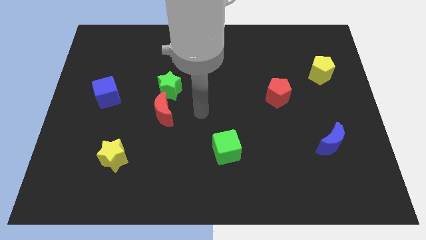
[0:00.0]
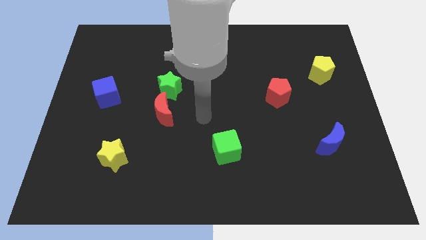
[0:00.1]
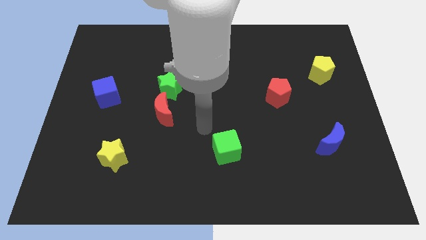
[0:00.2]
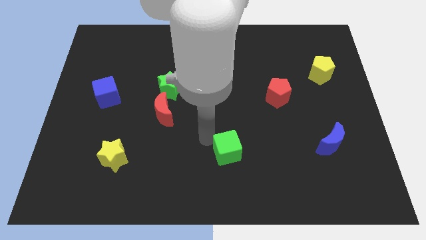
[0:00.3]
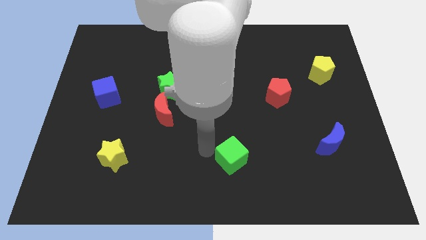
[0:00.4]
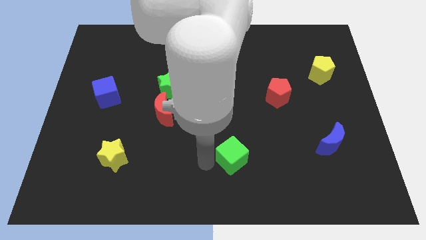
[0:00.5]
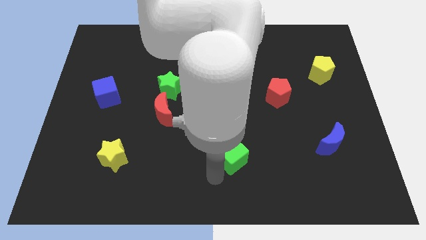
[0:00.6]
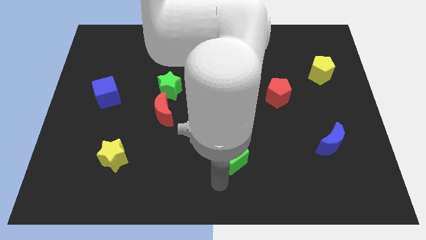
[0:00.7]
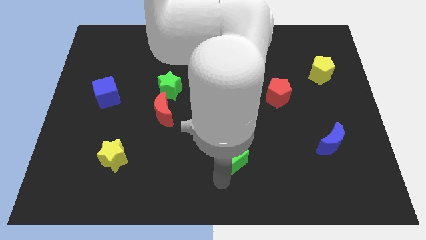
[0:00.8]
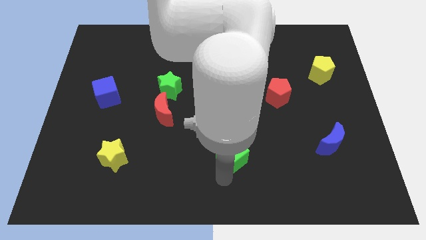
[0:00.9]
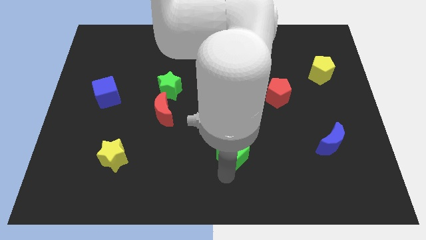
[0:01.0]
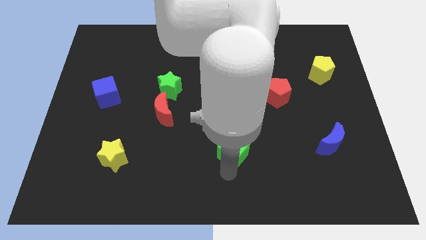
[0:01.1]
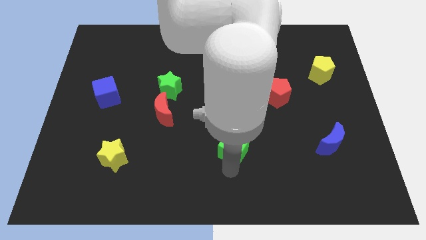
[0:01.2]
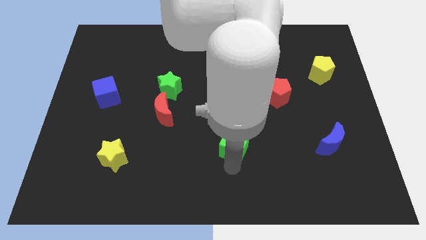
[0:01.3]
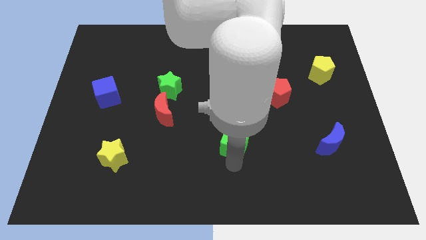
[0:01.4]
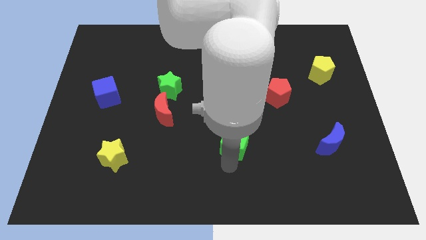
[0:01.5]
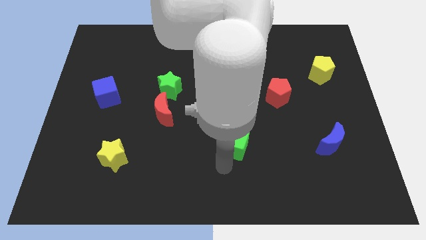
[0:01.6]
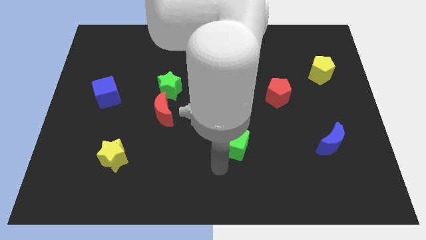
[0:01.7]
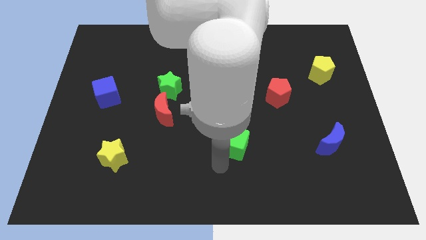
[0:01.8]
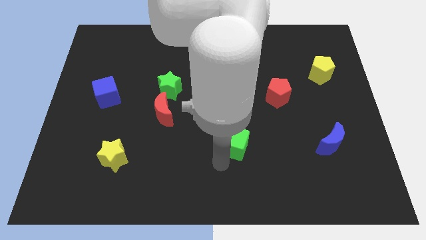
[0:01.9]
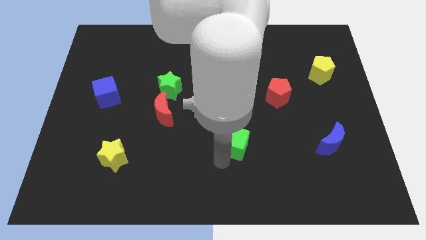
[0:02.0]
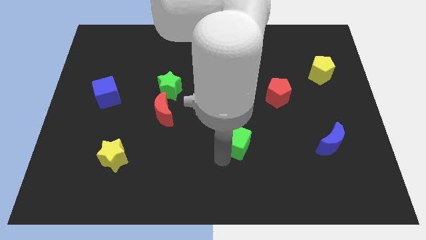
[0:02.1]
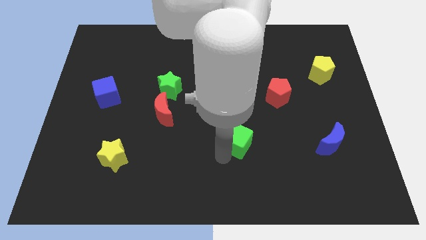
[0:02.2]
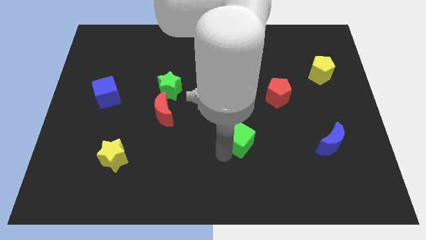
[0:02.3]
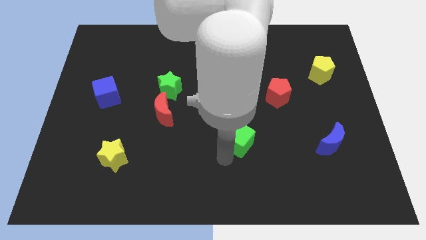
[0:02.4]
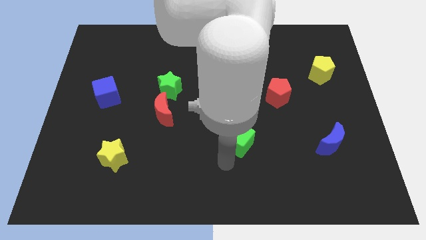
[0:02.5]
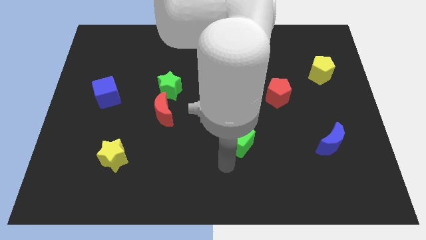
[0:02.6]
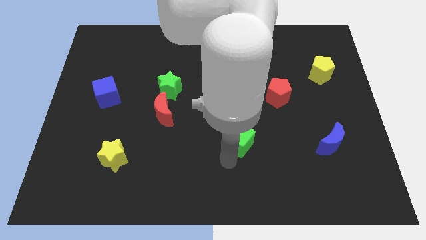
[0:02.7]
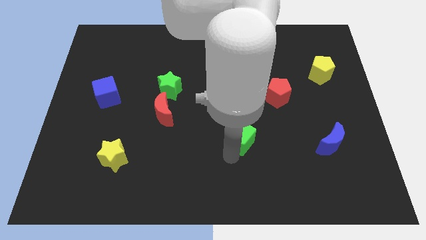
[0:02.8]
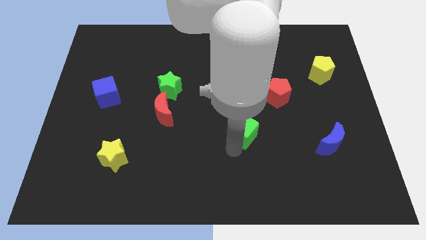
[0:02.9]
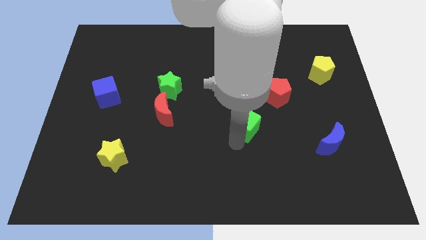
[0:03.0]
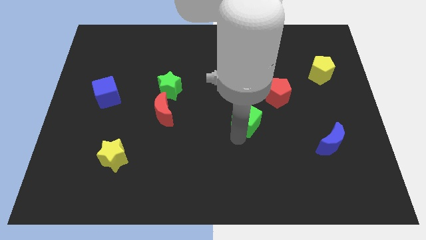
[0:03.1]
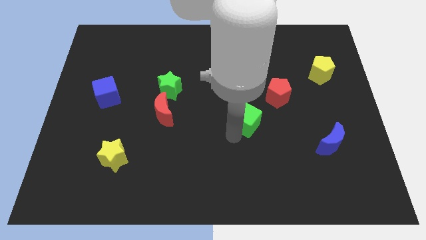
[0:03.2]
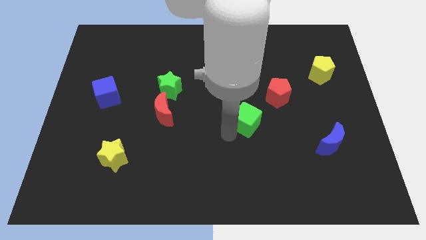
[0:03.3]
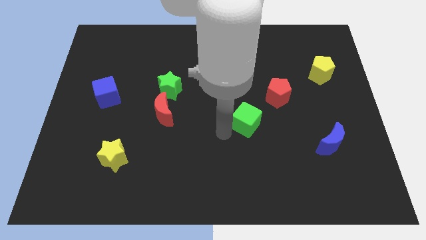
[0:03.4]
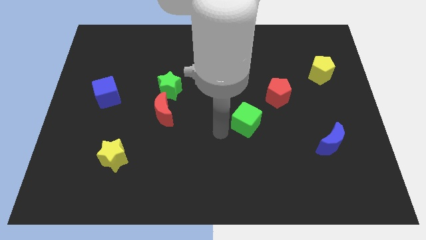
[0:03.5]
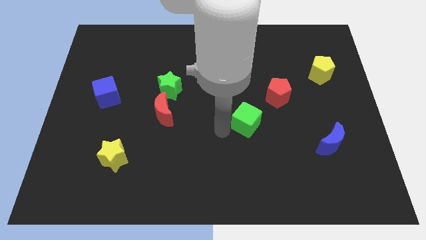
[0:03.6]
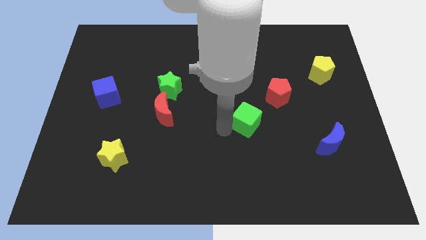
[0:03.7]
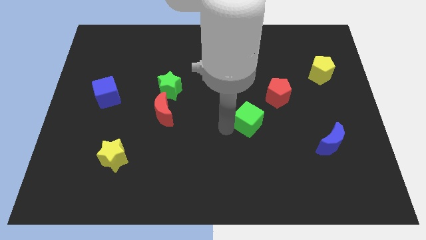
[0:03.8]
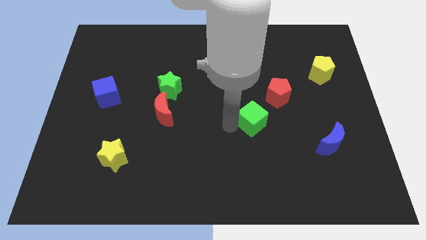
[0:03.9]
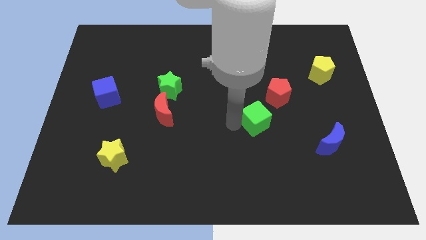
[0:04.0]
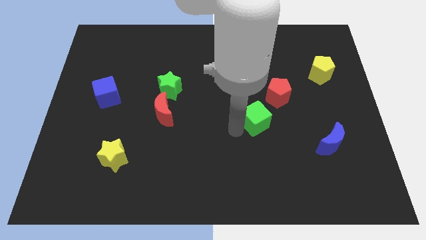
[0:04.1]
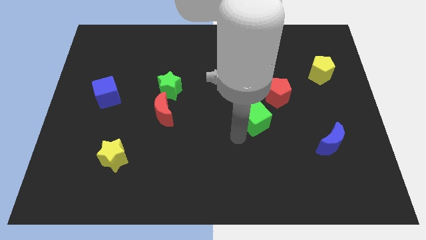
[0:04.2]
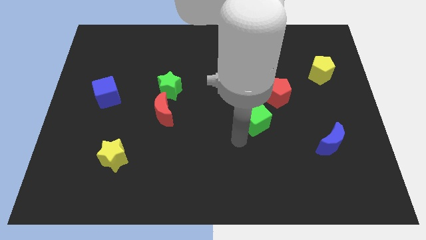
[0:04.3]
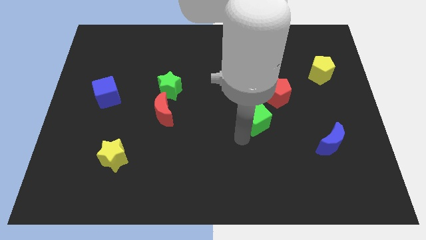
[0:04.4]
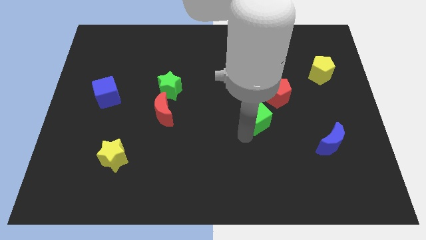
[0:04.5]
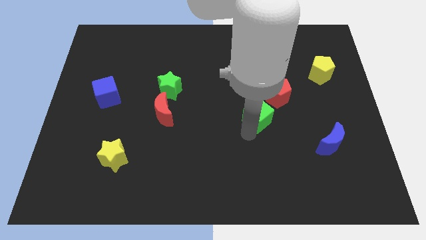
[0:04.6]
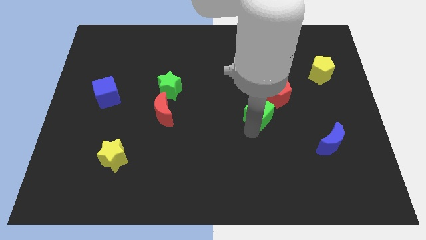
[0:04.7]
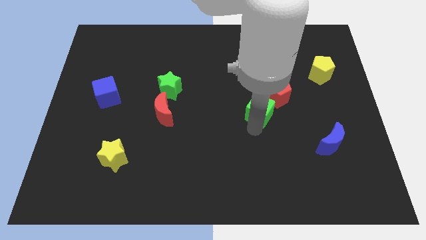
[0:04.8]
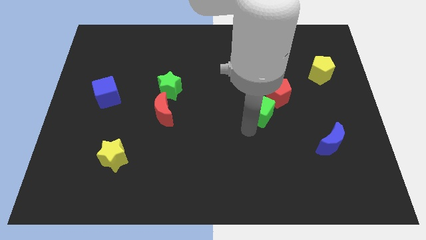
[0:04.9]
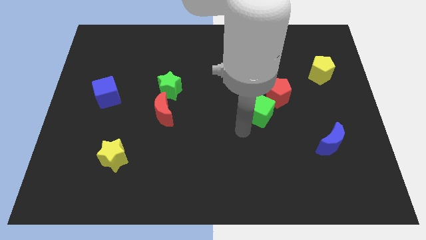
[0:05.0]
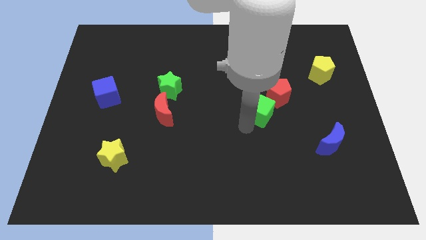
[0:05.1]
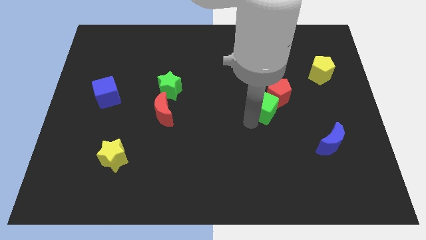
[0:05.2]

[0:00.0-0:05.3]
put the green cube next to the red pentagon

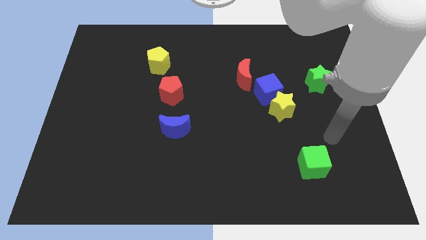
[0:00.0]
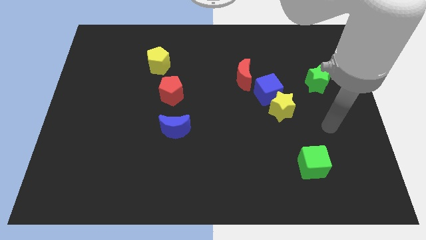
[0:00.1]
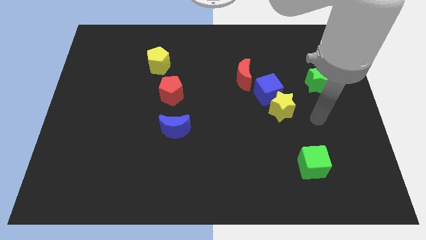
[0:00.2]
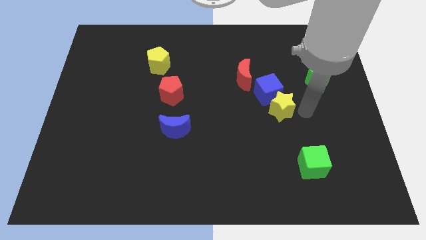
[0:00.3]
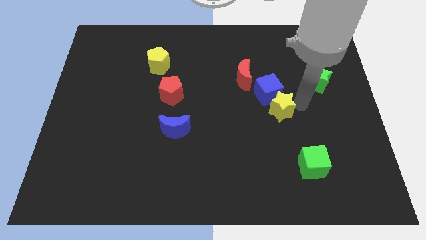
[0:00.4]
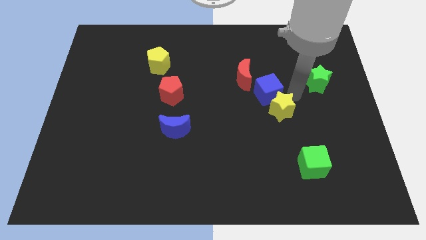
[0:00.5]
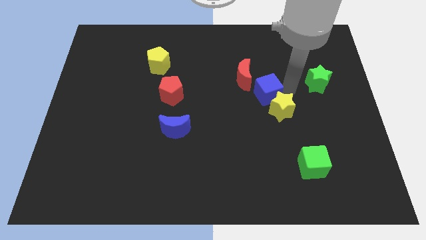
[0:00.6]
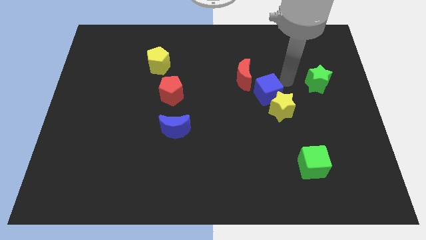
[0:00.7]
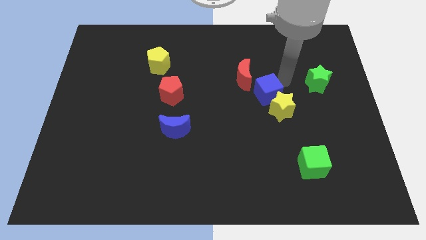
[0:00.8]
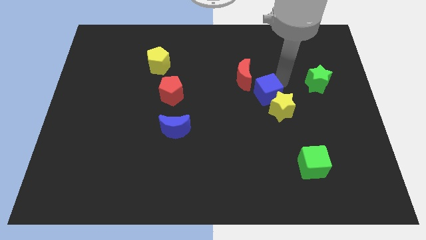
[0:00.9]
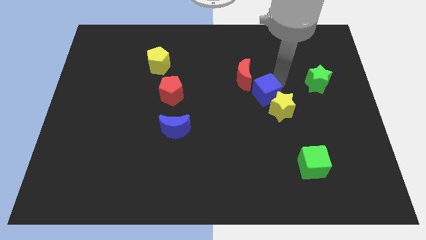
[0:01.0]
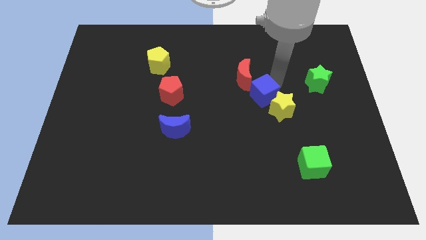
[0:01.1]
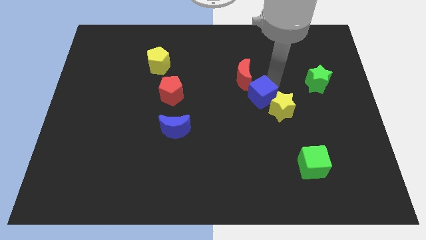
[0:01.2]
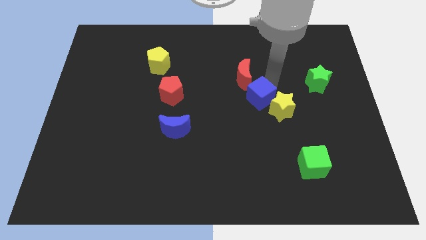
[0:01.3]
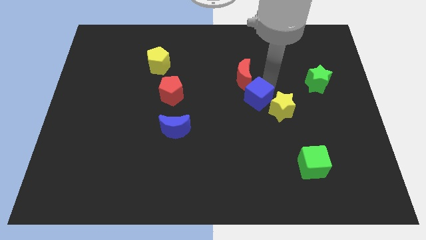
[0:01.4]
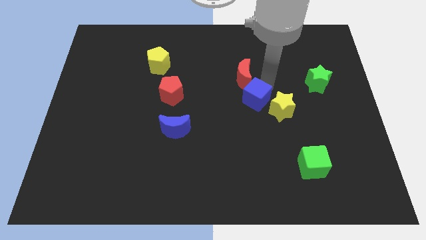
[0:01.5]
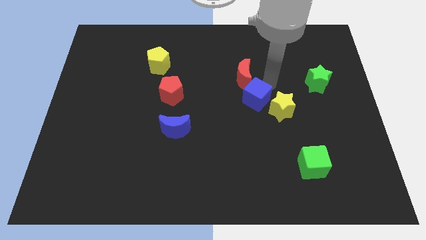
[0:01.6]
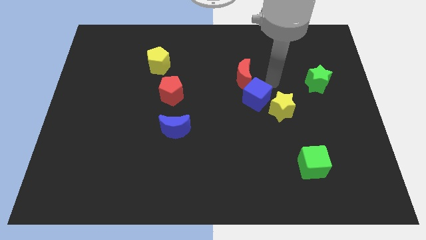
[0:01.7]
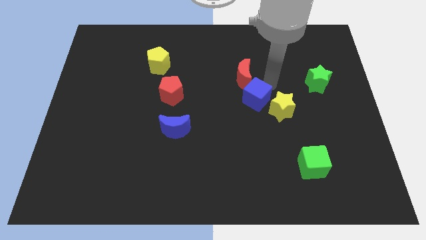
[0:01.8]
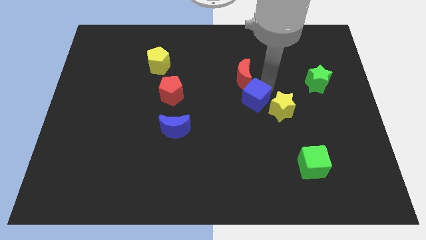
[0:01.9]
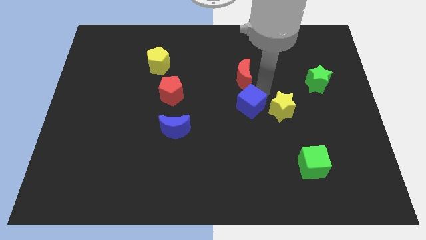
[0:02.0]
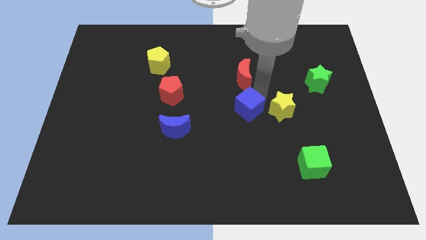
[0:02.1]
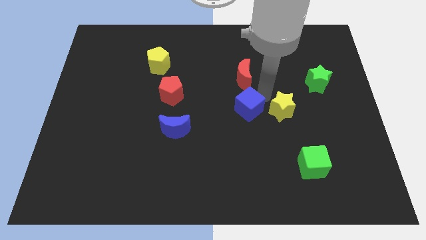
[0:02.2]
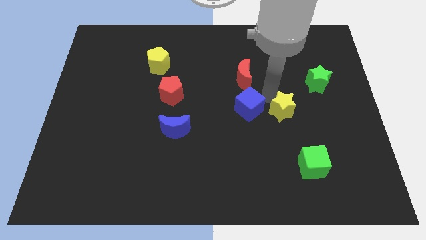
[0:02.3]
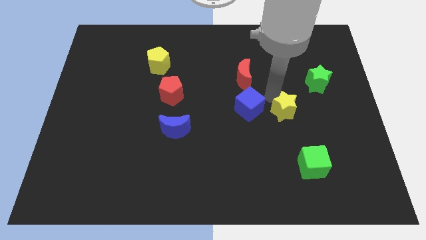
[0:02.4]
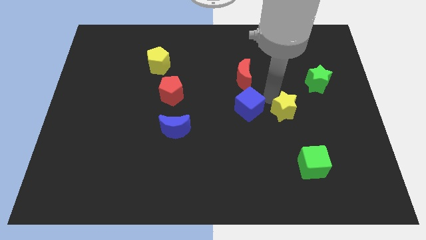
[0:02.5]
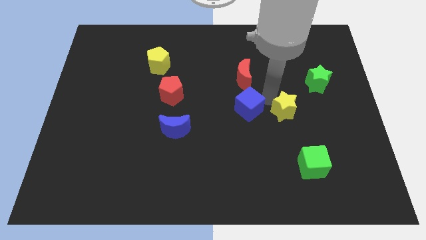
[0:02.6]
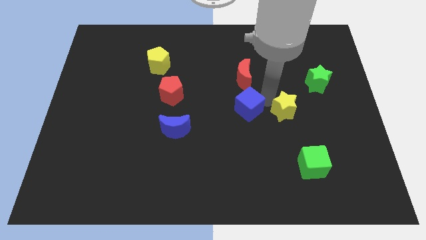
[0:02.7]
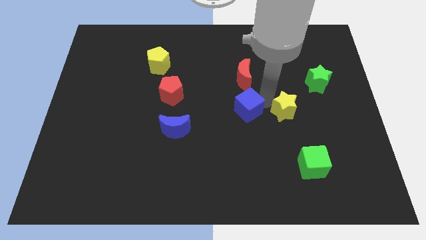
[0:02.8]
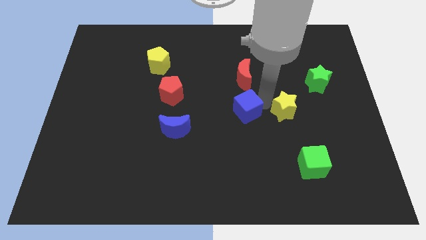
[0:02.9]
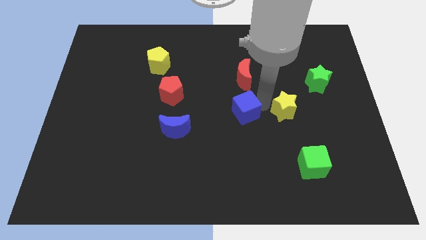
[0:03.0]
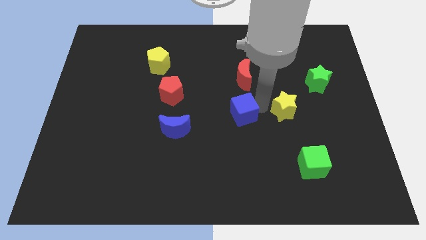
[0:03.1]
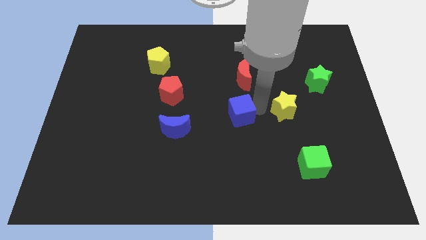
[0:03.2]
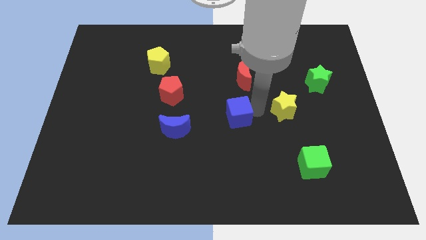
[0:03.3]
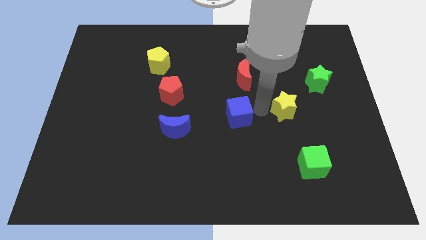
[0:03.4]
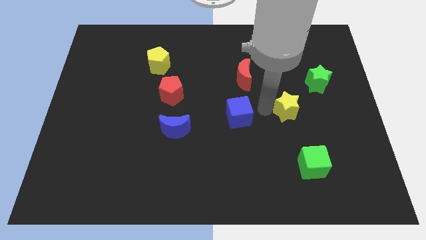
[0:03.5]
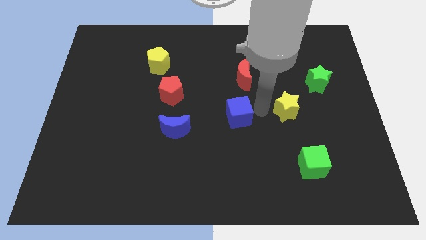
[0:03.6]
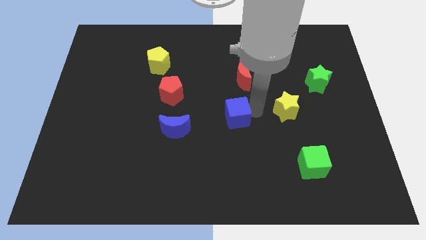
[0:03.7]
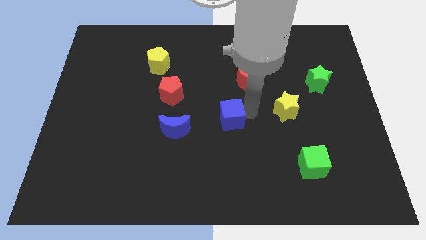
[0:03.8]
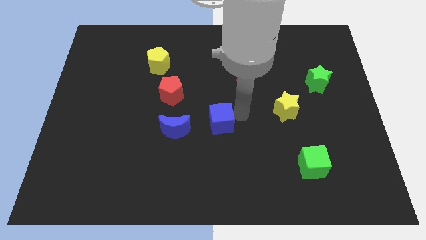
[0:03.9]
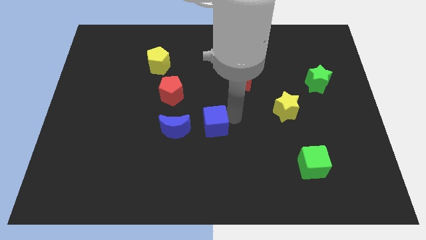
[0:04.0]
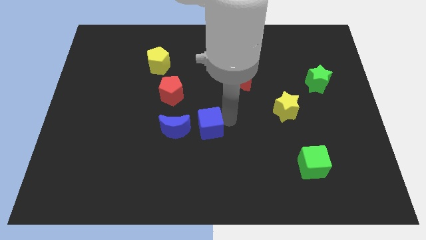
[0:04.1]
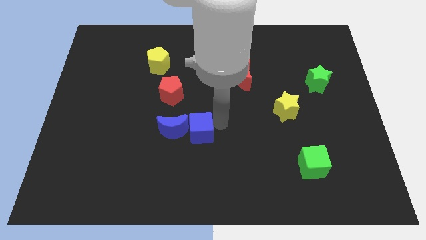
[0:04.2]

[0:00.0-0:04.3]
put the blue cube towards the blue moon
